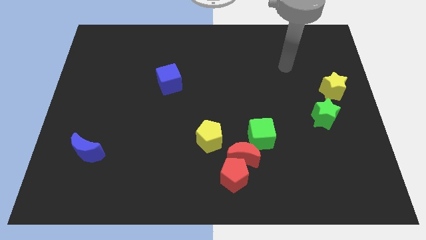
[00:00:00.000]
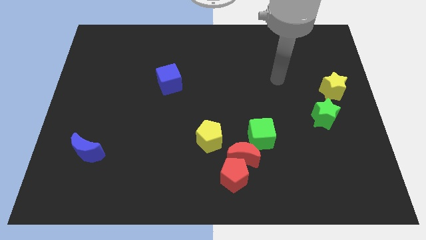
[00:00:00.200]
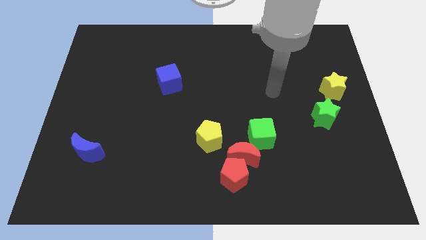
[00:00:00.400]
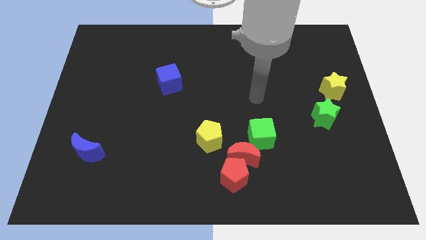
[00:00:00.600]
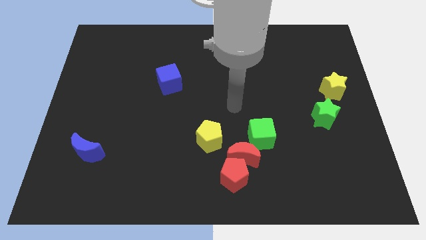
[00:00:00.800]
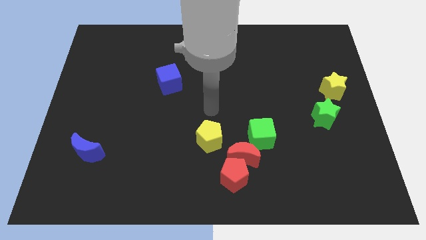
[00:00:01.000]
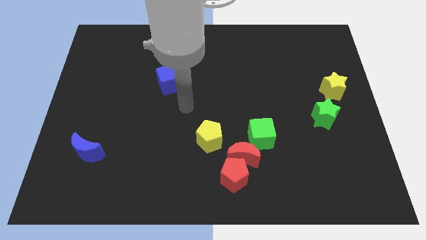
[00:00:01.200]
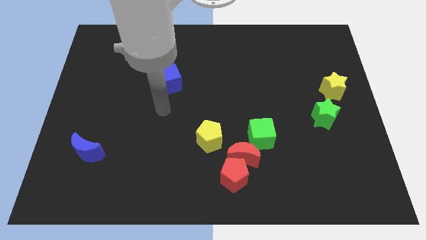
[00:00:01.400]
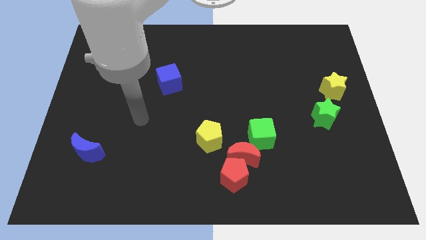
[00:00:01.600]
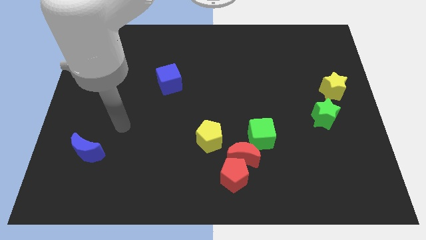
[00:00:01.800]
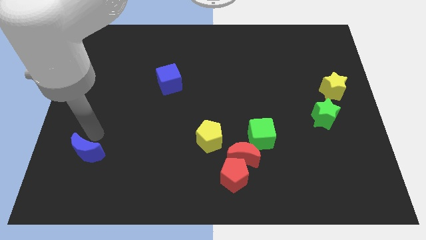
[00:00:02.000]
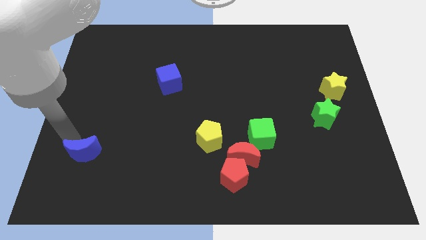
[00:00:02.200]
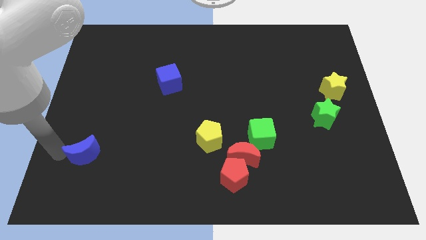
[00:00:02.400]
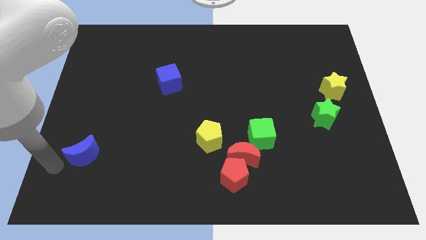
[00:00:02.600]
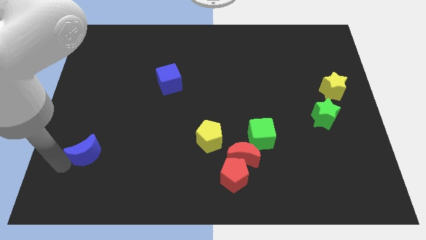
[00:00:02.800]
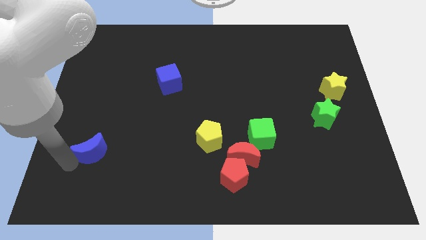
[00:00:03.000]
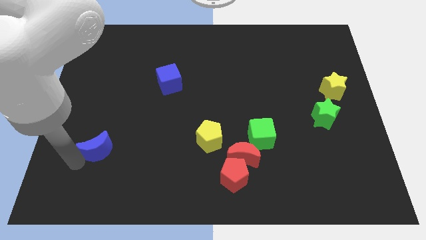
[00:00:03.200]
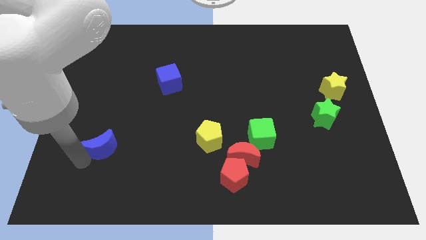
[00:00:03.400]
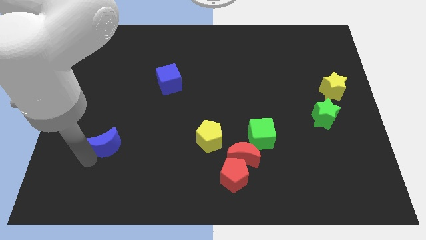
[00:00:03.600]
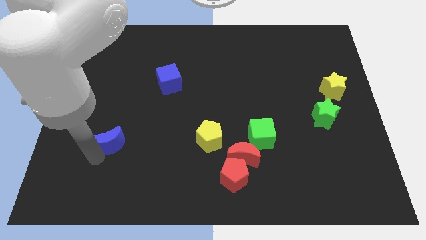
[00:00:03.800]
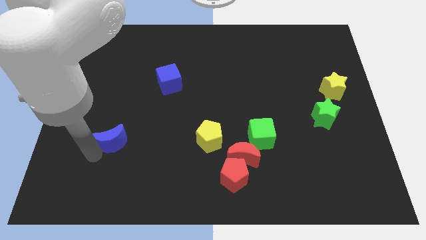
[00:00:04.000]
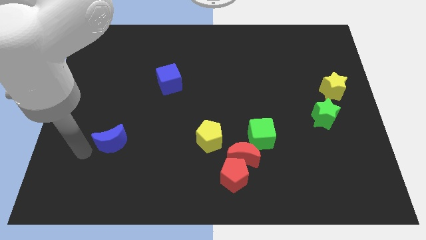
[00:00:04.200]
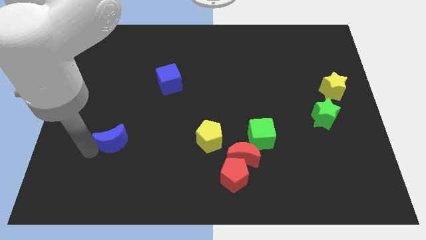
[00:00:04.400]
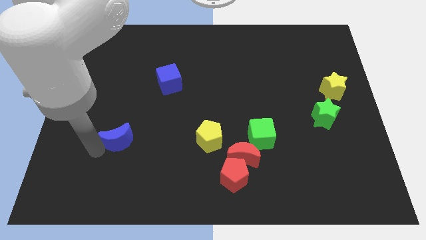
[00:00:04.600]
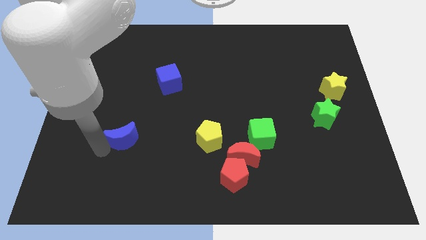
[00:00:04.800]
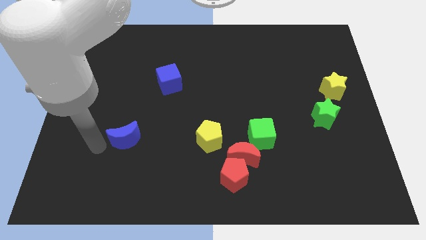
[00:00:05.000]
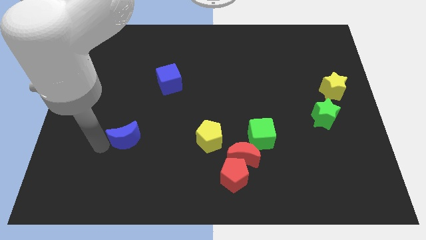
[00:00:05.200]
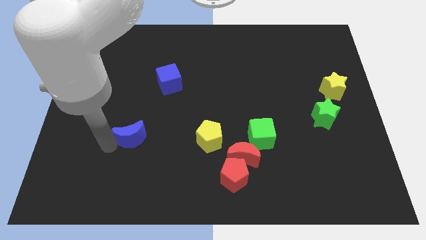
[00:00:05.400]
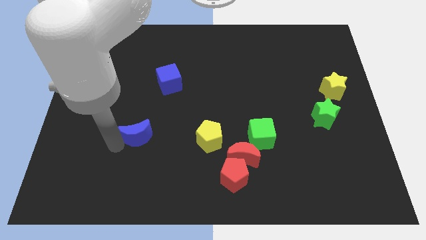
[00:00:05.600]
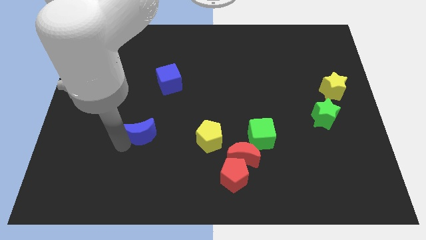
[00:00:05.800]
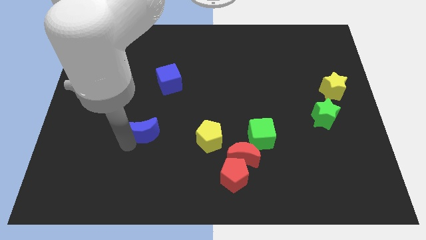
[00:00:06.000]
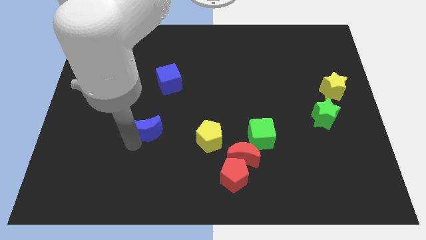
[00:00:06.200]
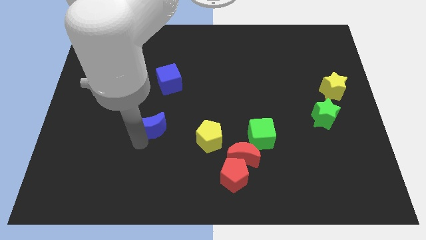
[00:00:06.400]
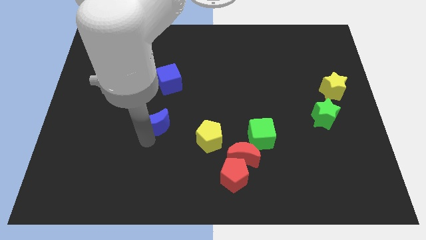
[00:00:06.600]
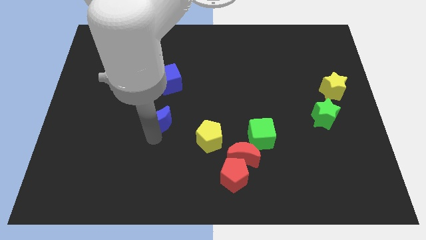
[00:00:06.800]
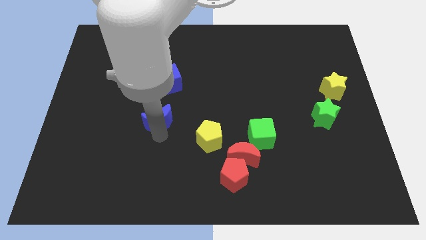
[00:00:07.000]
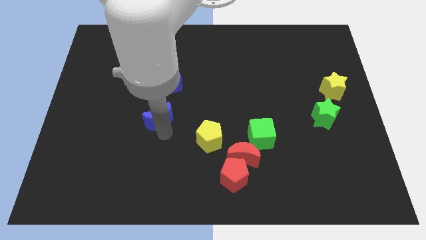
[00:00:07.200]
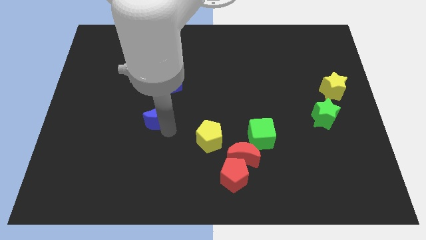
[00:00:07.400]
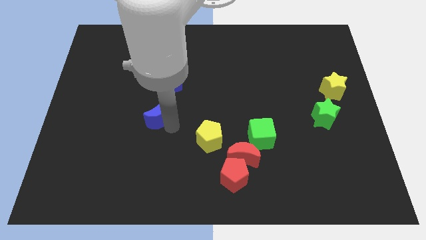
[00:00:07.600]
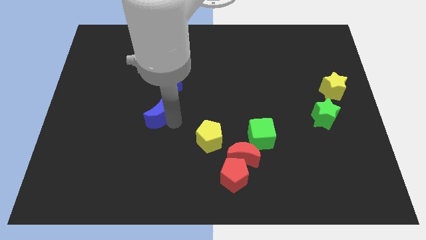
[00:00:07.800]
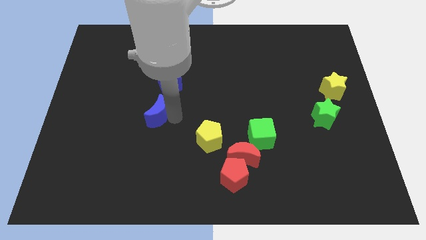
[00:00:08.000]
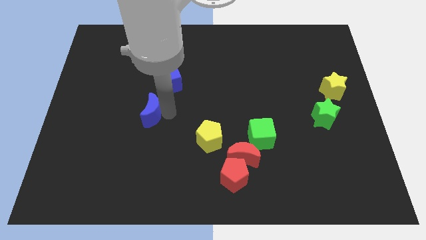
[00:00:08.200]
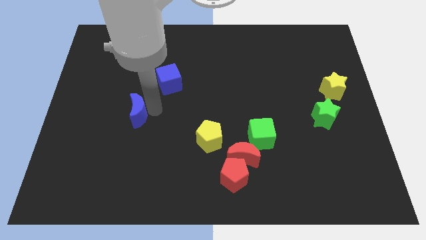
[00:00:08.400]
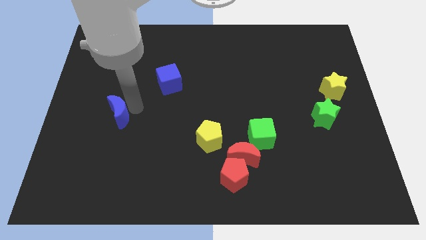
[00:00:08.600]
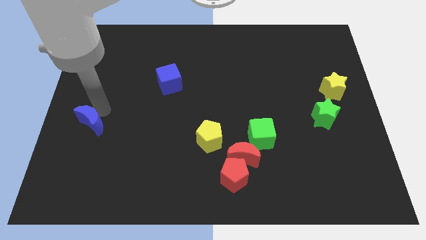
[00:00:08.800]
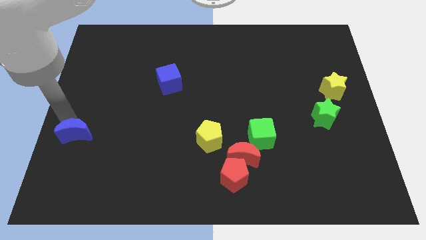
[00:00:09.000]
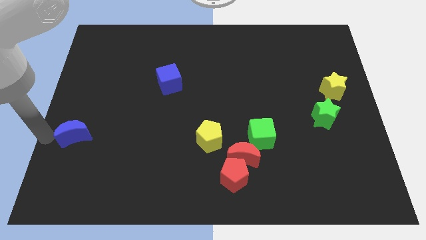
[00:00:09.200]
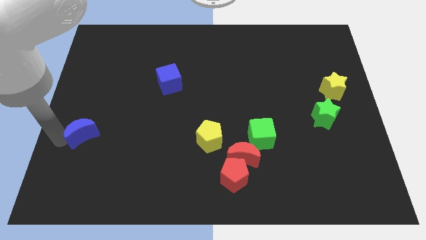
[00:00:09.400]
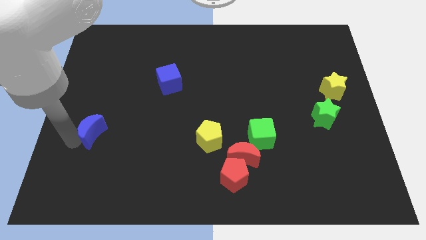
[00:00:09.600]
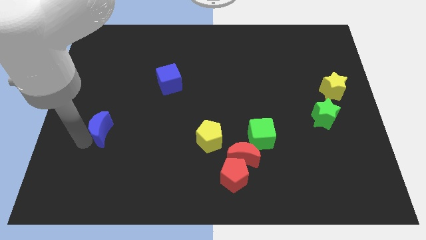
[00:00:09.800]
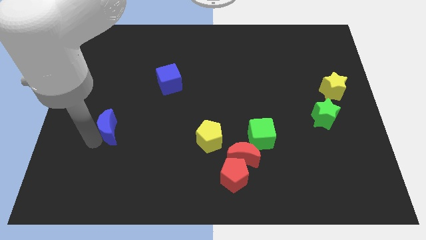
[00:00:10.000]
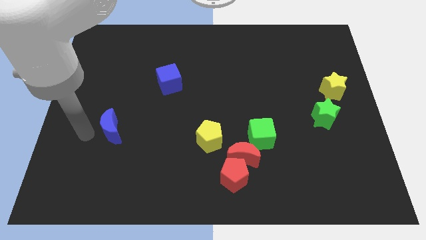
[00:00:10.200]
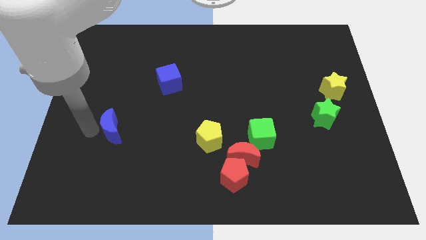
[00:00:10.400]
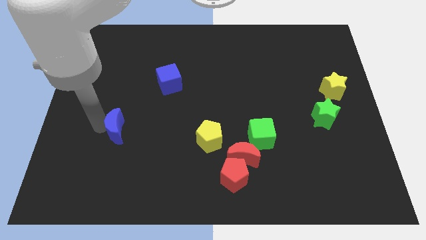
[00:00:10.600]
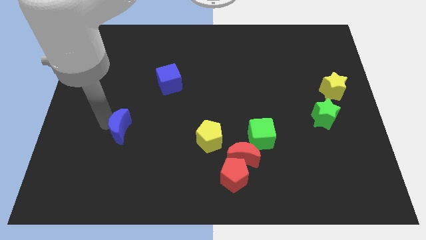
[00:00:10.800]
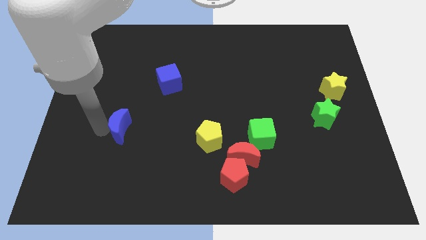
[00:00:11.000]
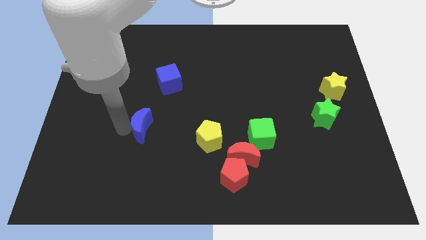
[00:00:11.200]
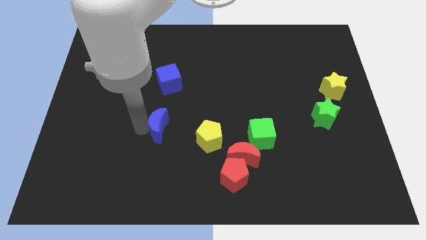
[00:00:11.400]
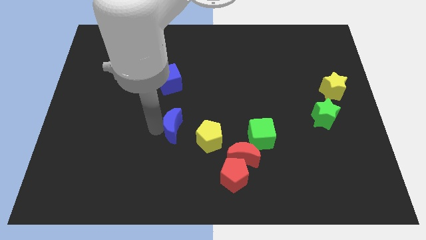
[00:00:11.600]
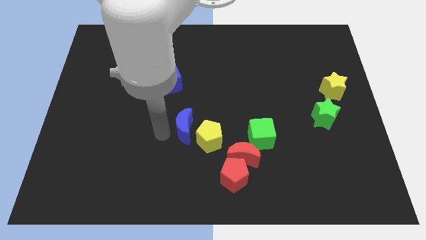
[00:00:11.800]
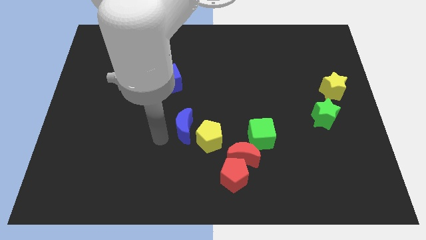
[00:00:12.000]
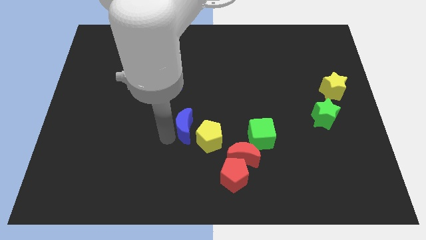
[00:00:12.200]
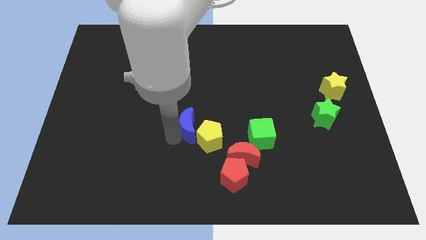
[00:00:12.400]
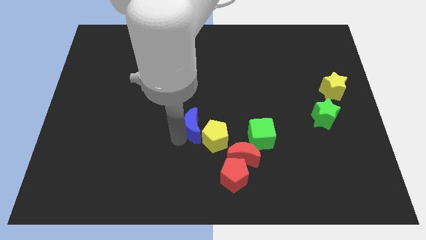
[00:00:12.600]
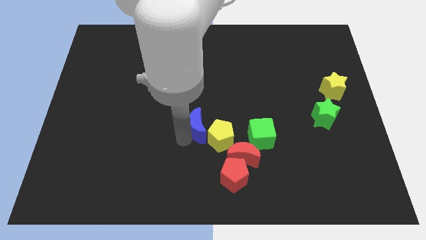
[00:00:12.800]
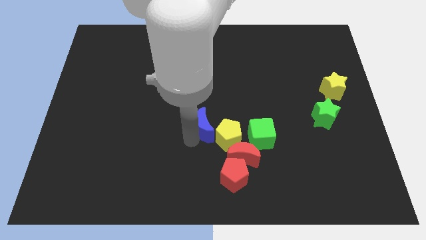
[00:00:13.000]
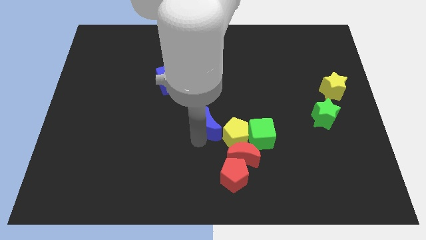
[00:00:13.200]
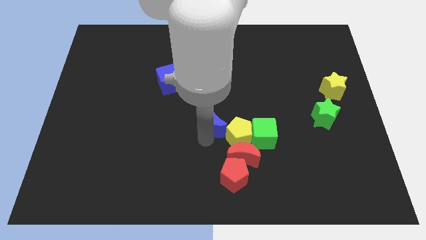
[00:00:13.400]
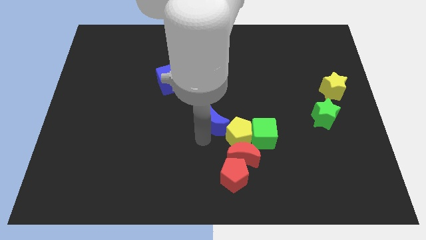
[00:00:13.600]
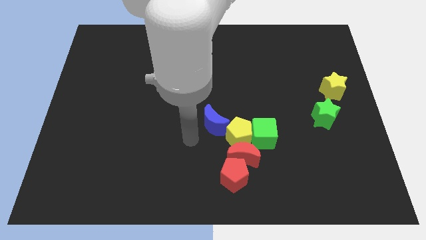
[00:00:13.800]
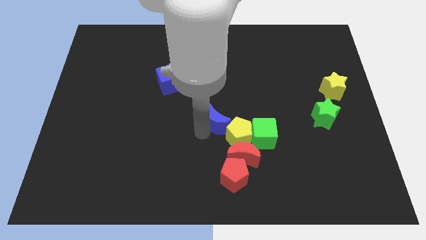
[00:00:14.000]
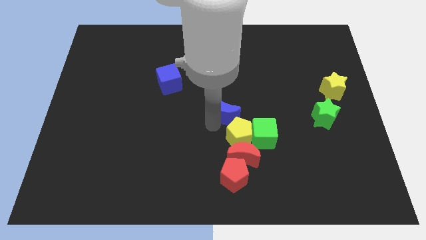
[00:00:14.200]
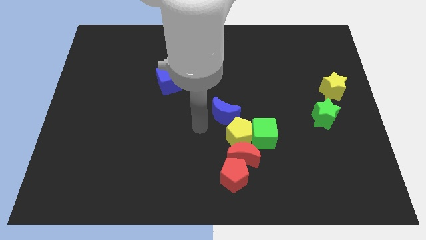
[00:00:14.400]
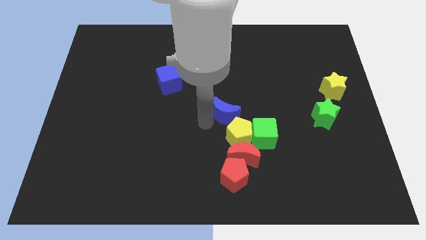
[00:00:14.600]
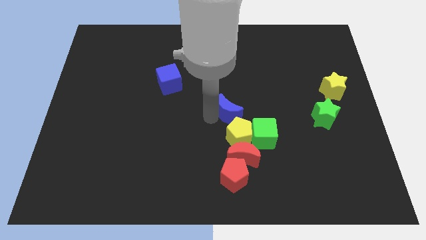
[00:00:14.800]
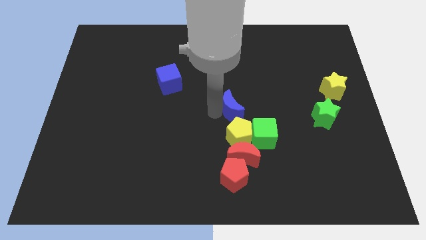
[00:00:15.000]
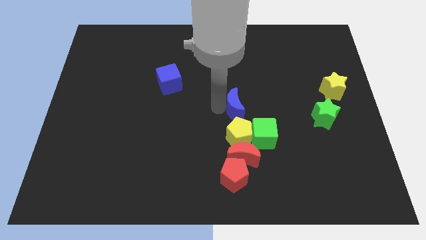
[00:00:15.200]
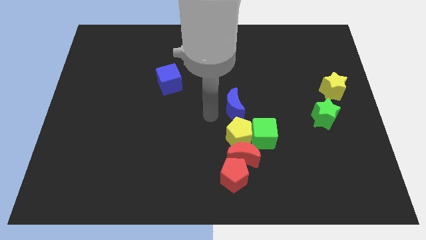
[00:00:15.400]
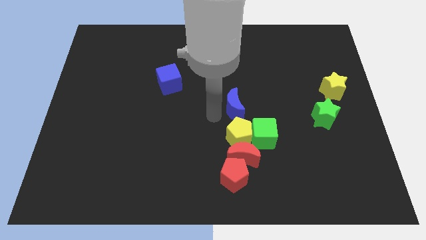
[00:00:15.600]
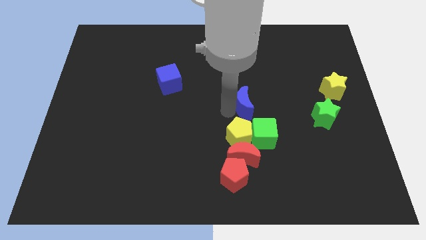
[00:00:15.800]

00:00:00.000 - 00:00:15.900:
put the blue moon above the green cube
